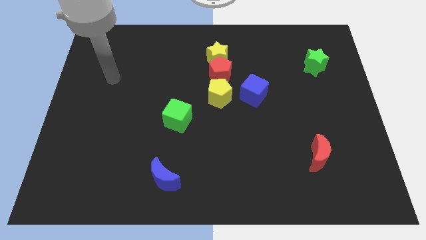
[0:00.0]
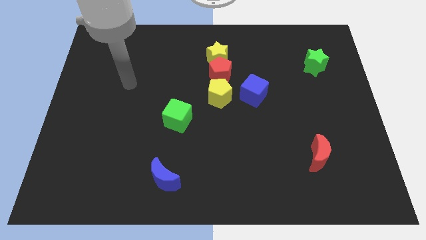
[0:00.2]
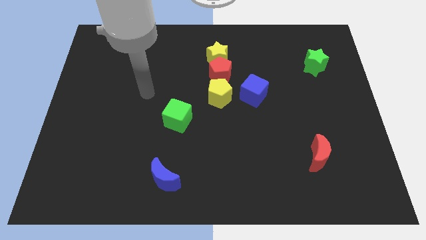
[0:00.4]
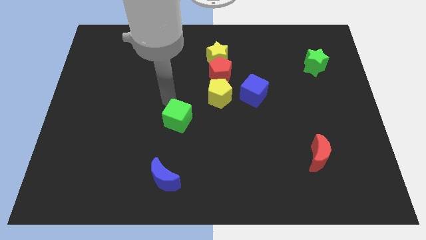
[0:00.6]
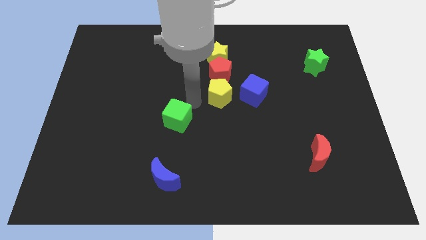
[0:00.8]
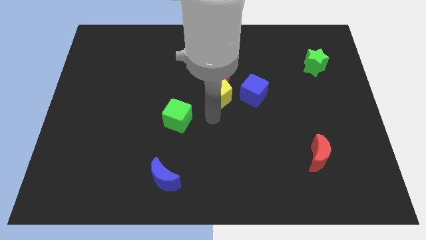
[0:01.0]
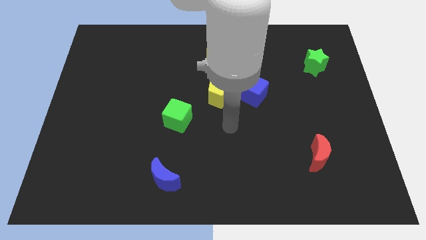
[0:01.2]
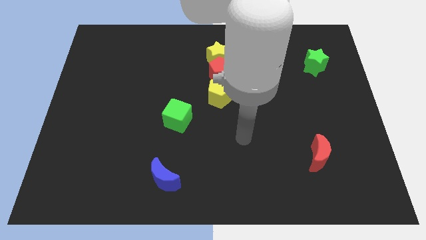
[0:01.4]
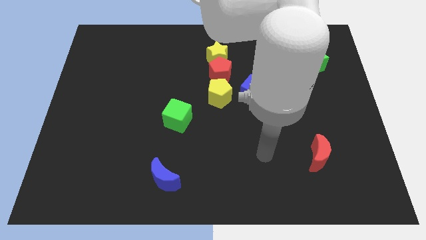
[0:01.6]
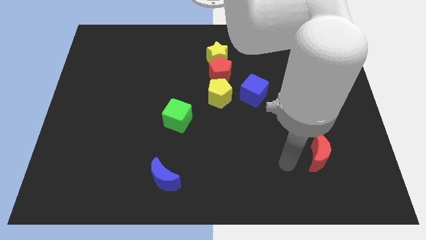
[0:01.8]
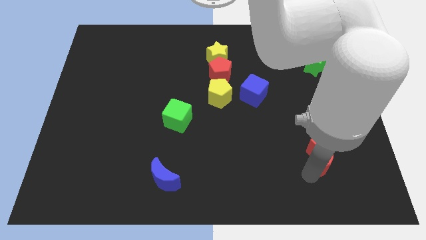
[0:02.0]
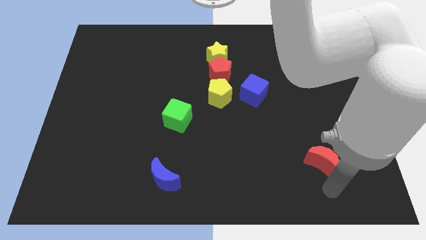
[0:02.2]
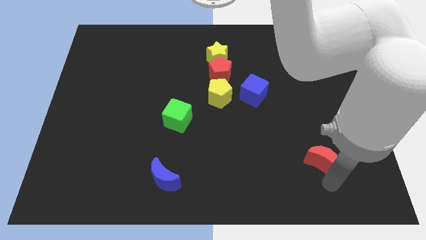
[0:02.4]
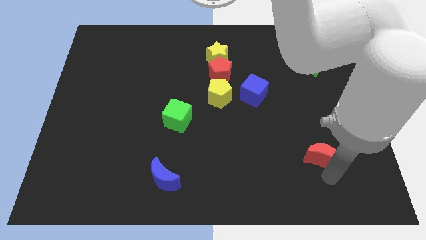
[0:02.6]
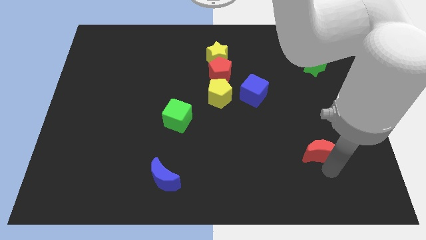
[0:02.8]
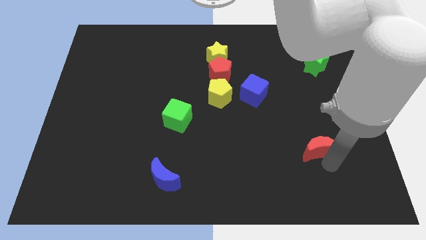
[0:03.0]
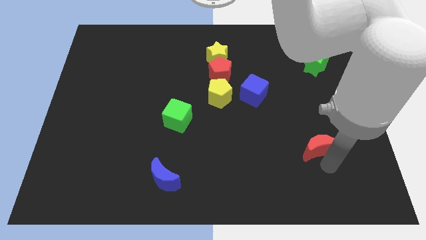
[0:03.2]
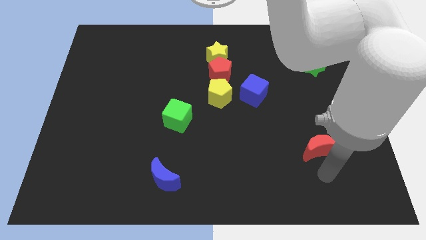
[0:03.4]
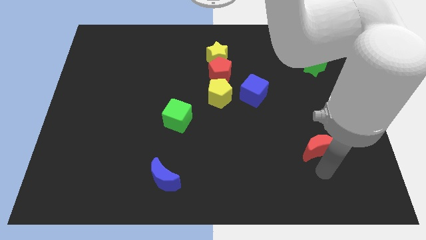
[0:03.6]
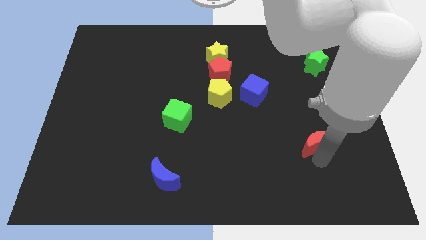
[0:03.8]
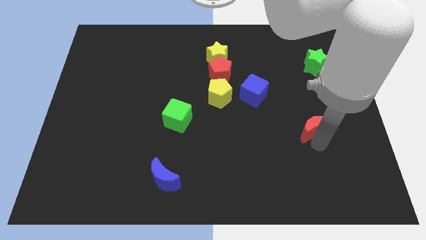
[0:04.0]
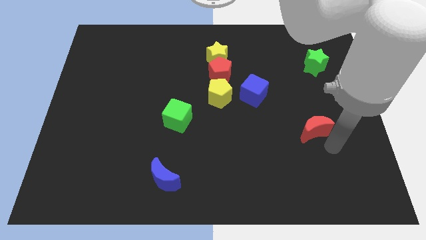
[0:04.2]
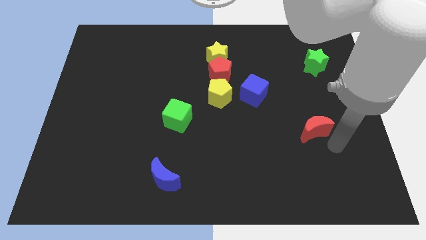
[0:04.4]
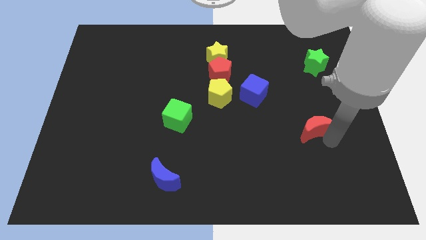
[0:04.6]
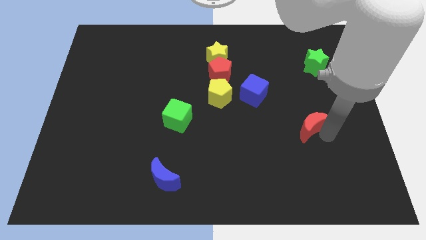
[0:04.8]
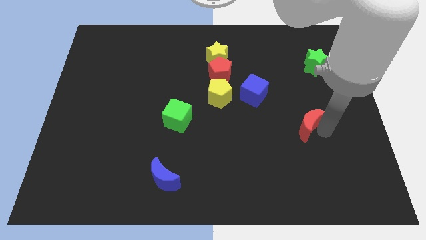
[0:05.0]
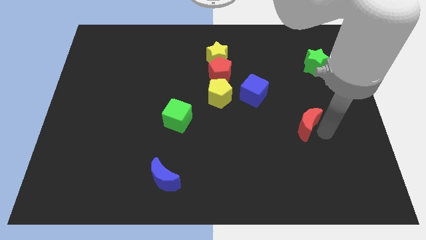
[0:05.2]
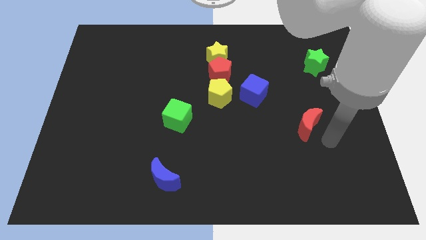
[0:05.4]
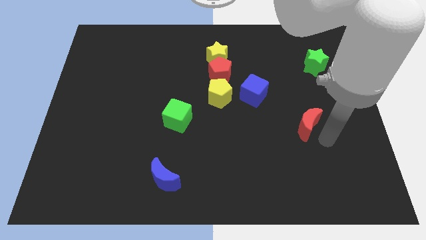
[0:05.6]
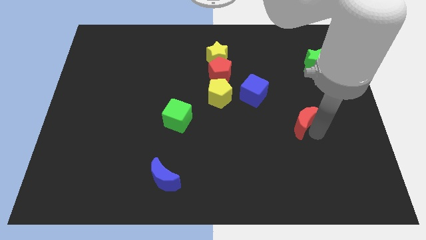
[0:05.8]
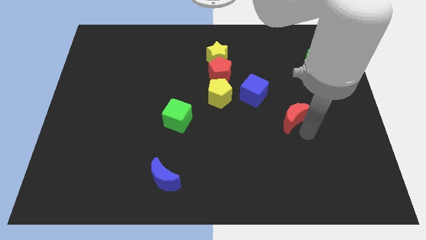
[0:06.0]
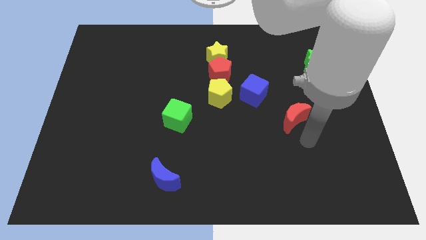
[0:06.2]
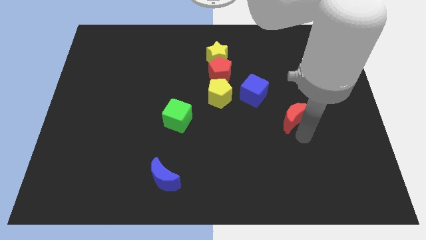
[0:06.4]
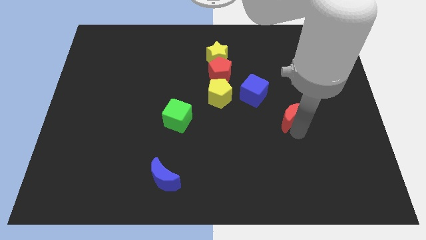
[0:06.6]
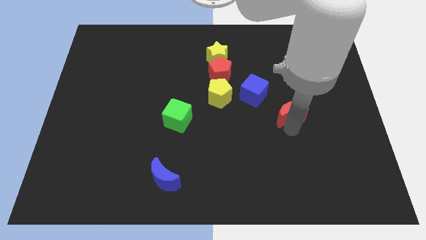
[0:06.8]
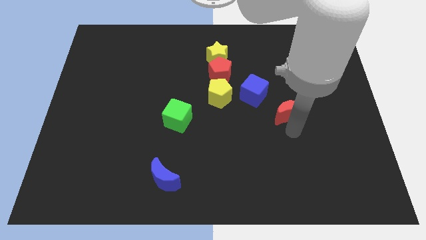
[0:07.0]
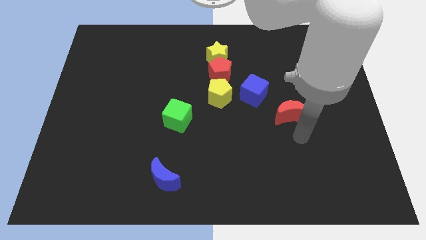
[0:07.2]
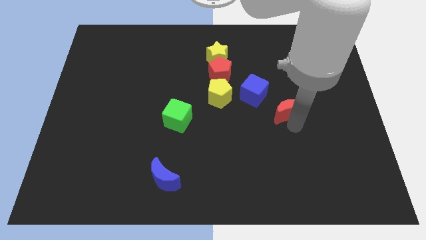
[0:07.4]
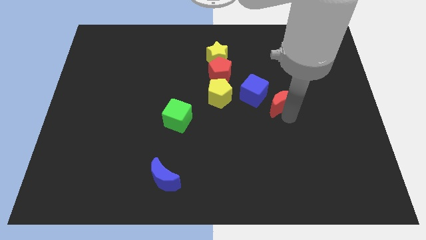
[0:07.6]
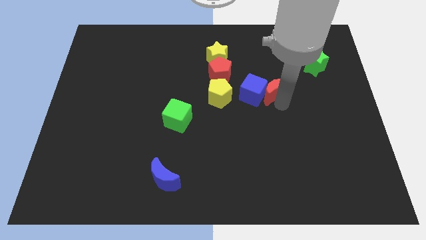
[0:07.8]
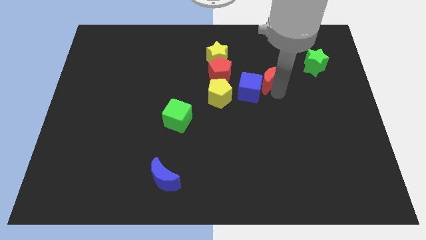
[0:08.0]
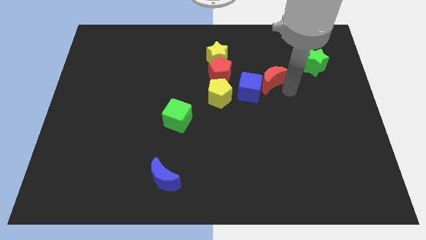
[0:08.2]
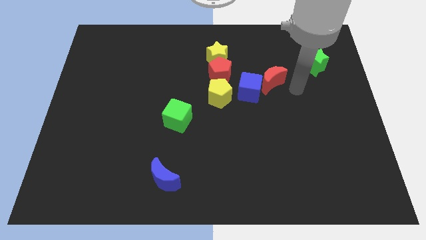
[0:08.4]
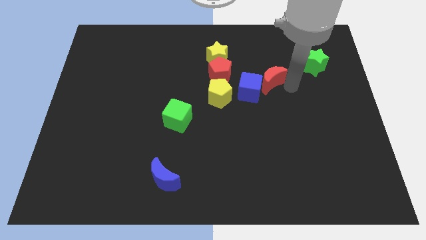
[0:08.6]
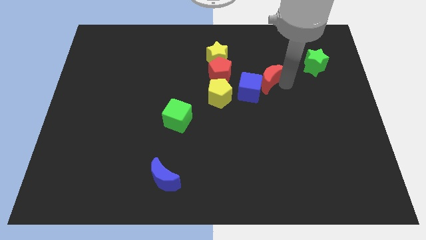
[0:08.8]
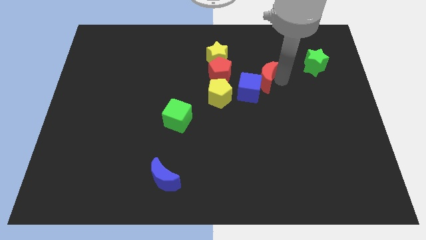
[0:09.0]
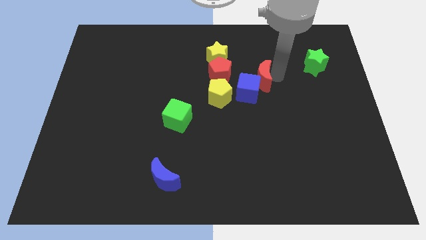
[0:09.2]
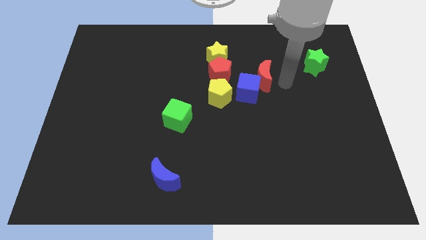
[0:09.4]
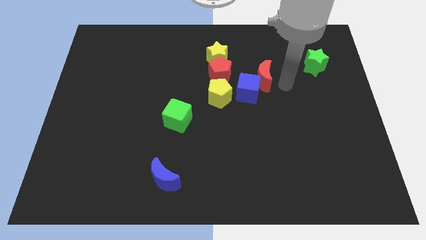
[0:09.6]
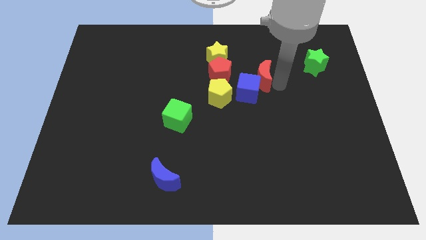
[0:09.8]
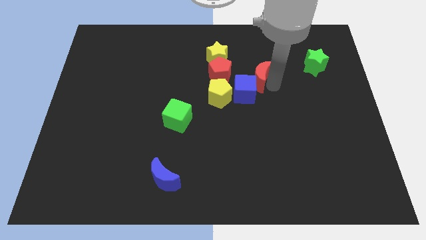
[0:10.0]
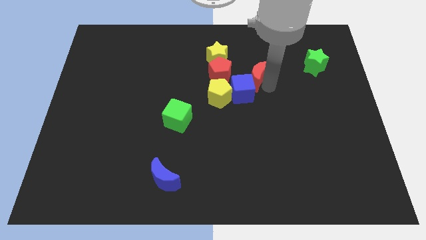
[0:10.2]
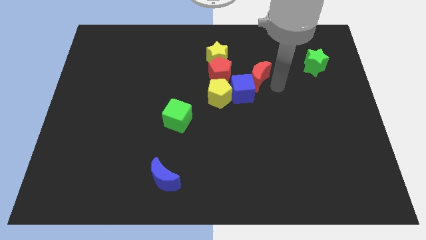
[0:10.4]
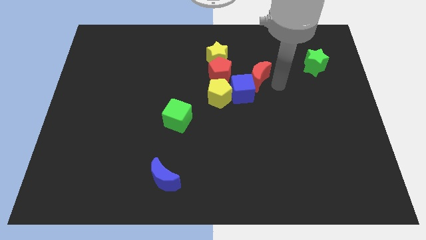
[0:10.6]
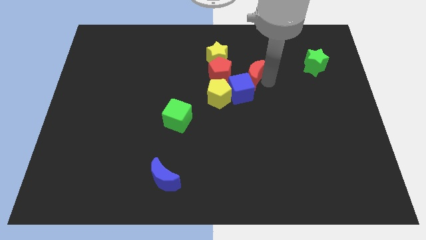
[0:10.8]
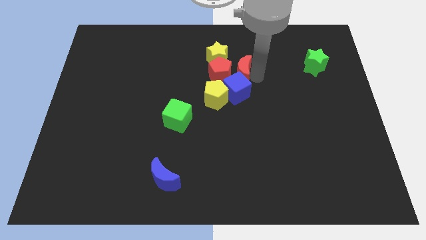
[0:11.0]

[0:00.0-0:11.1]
push the red moon to the red pentagon
